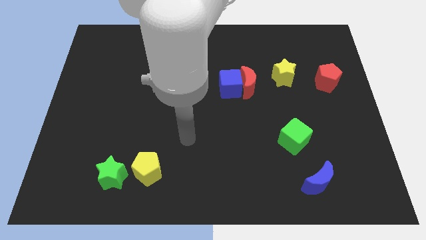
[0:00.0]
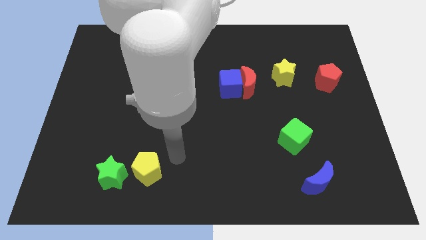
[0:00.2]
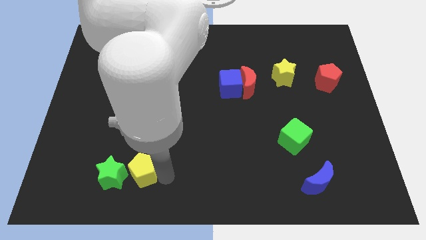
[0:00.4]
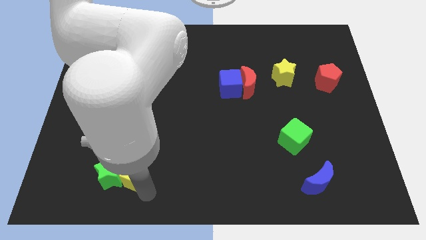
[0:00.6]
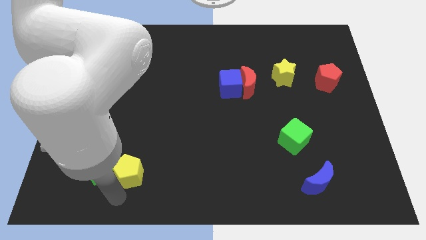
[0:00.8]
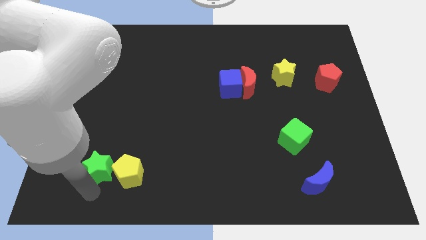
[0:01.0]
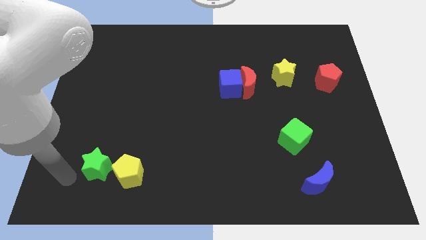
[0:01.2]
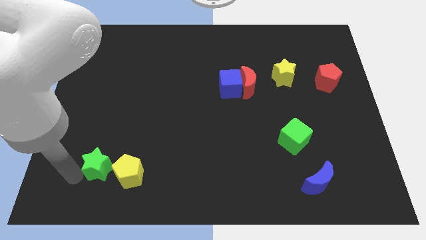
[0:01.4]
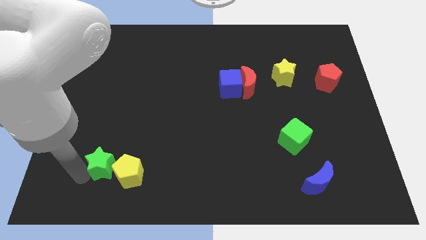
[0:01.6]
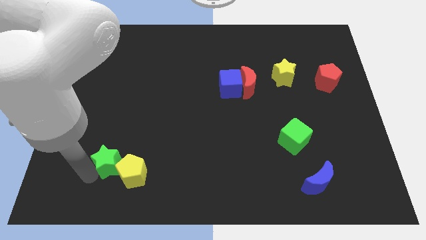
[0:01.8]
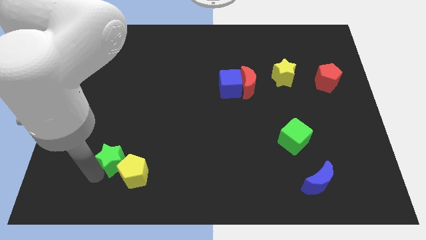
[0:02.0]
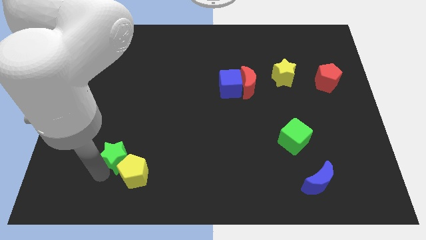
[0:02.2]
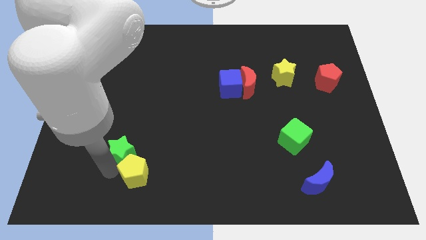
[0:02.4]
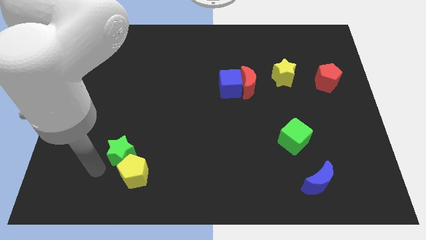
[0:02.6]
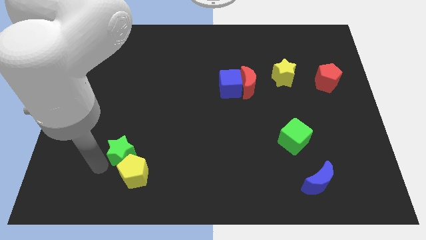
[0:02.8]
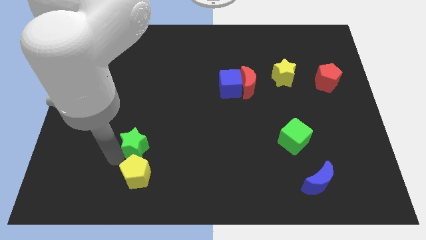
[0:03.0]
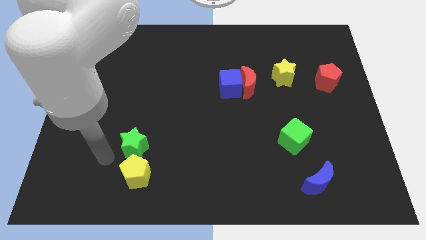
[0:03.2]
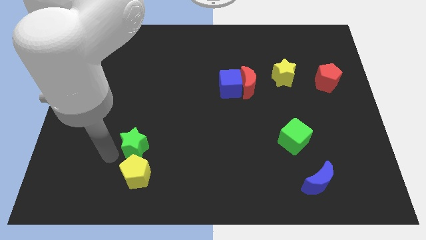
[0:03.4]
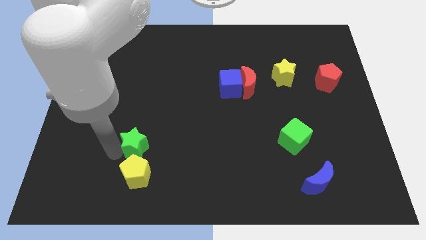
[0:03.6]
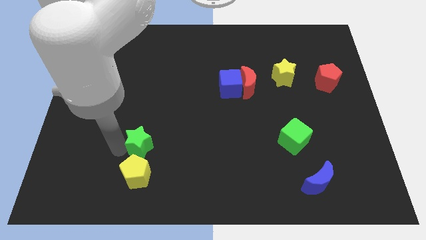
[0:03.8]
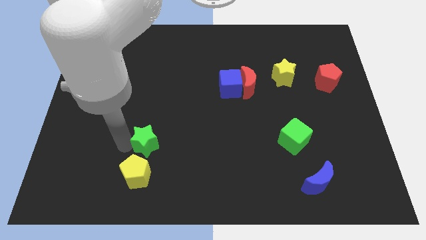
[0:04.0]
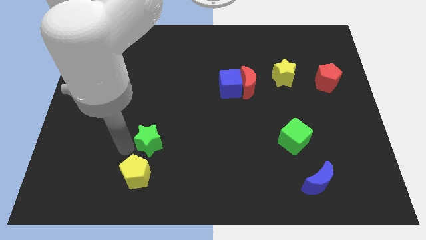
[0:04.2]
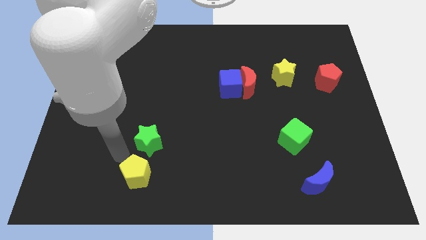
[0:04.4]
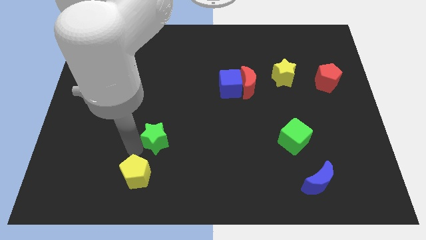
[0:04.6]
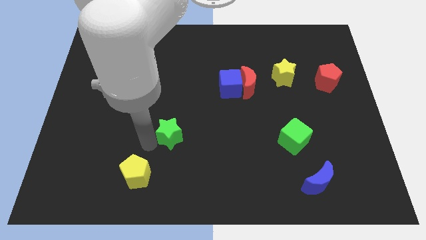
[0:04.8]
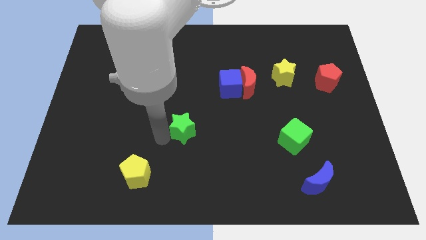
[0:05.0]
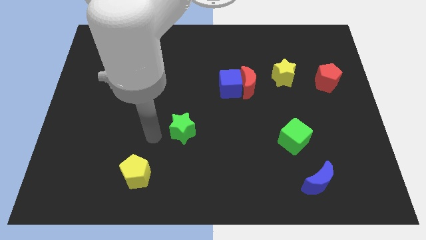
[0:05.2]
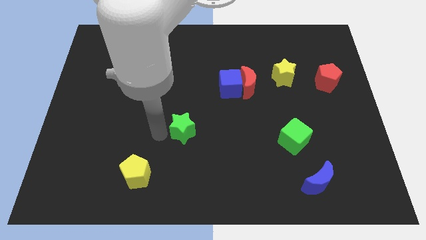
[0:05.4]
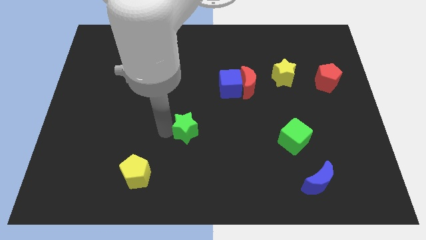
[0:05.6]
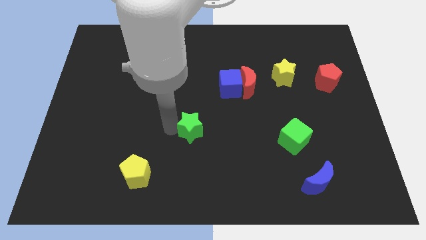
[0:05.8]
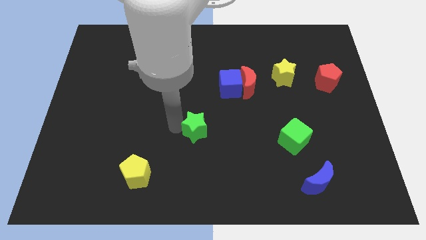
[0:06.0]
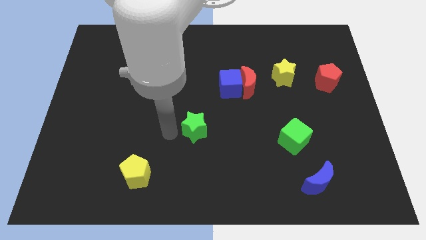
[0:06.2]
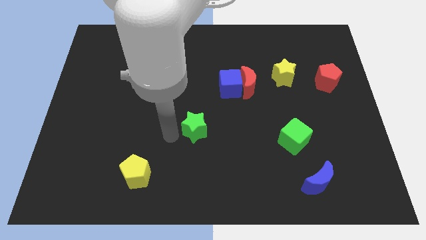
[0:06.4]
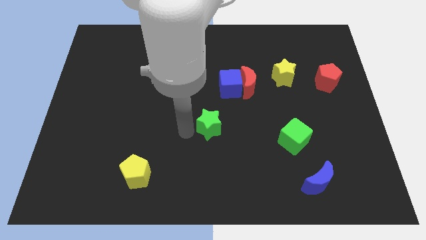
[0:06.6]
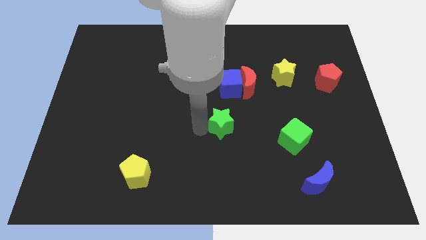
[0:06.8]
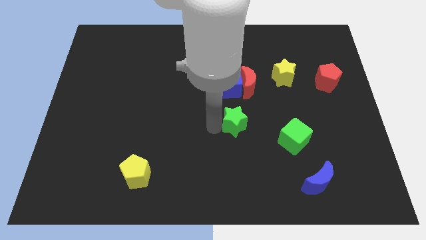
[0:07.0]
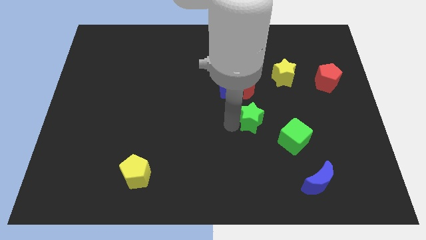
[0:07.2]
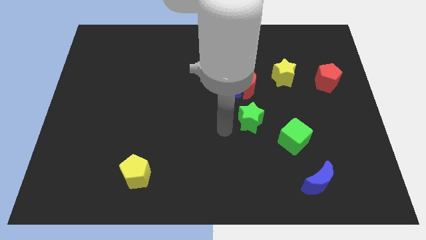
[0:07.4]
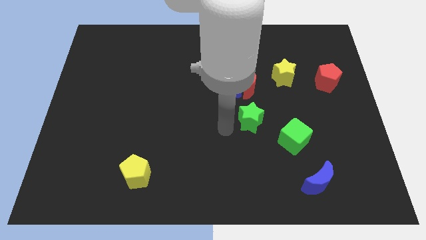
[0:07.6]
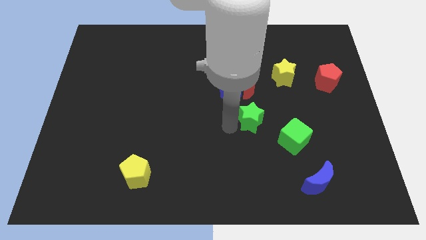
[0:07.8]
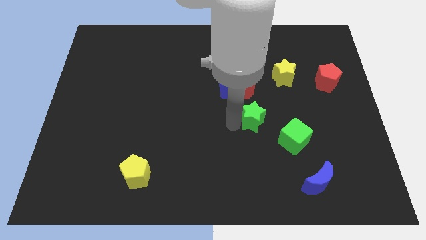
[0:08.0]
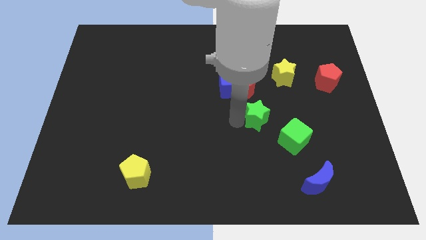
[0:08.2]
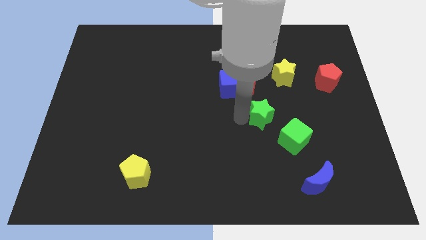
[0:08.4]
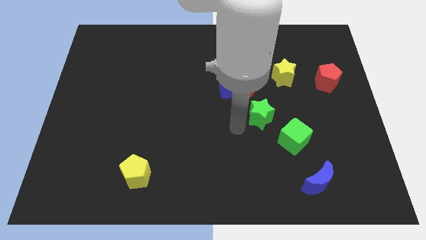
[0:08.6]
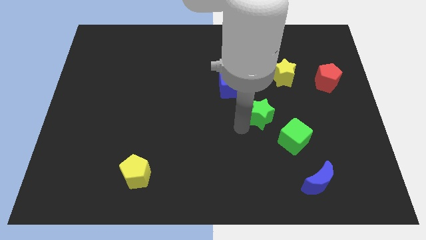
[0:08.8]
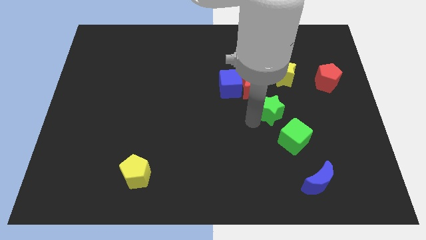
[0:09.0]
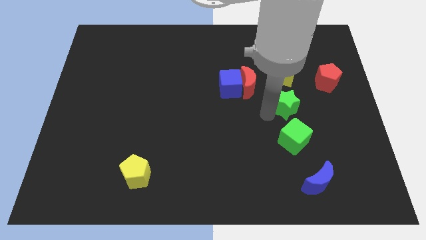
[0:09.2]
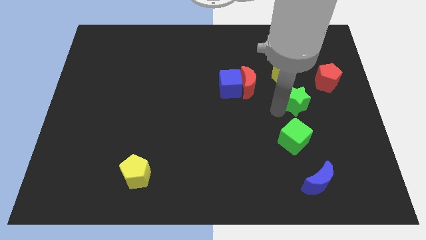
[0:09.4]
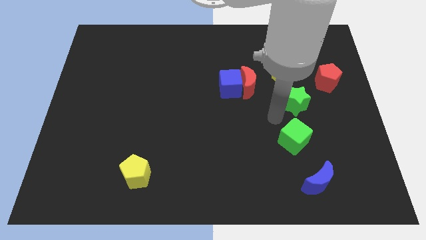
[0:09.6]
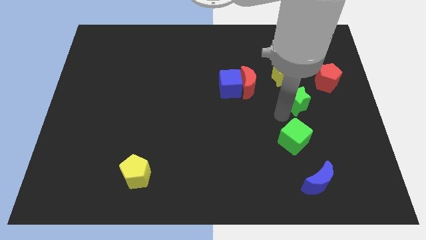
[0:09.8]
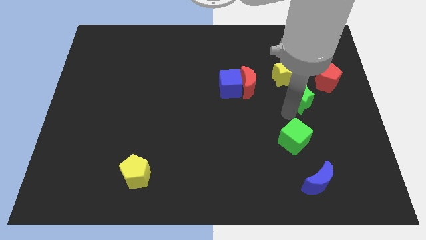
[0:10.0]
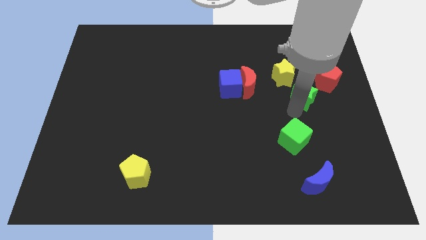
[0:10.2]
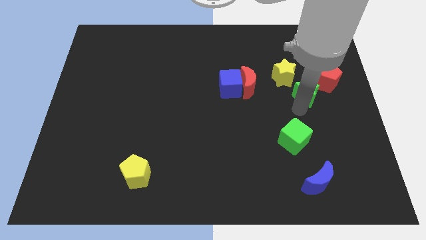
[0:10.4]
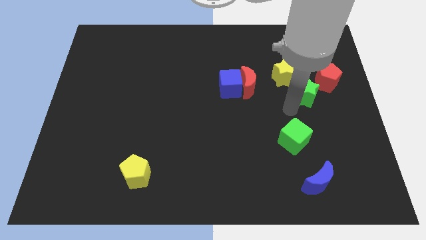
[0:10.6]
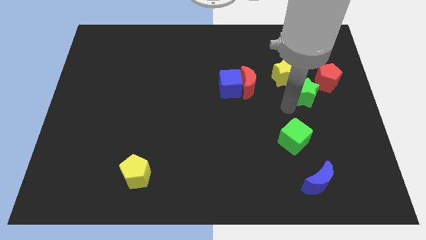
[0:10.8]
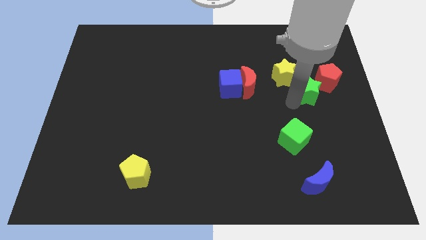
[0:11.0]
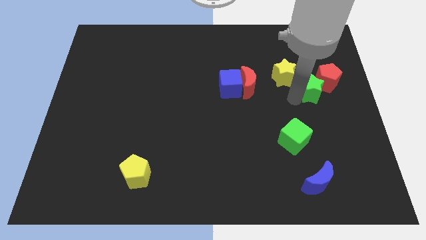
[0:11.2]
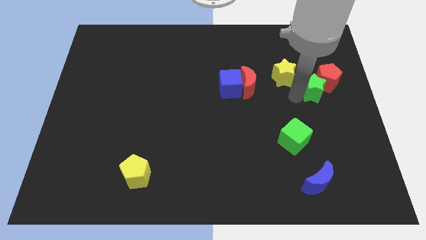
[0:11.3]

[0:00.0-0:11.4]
slide the green star to the red pentagon

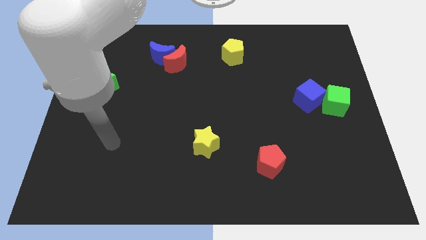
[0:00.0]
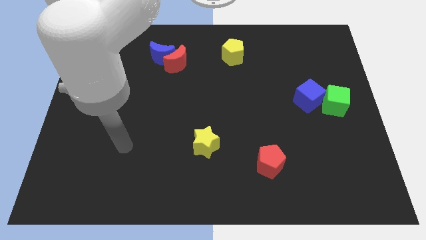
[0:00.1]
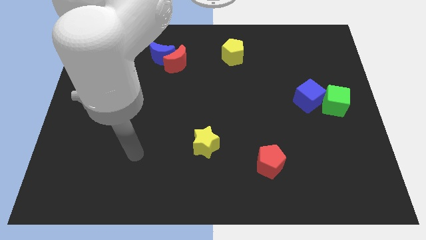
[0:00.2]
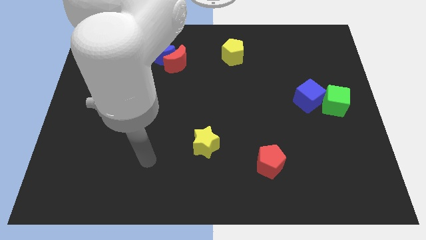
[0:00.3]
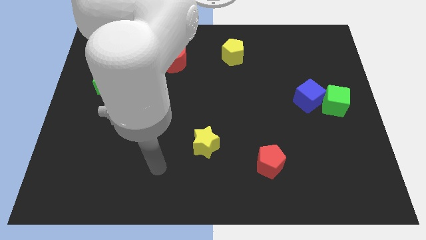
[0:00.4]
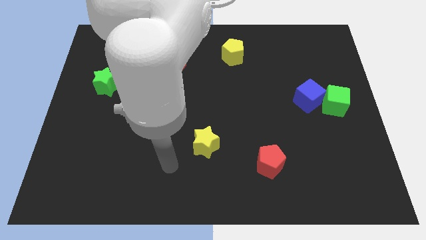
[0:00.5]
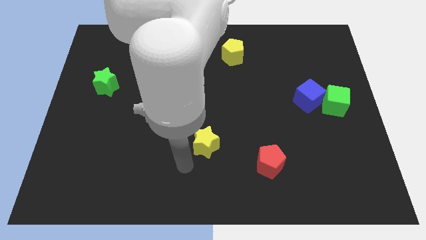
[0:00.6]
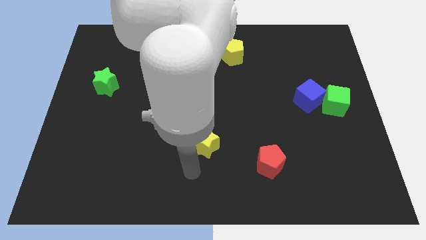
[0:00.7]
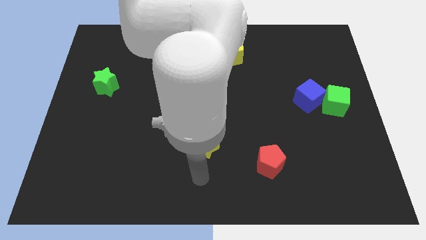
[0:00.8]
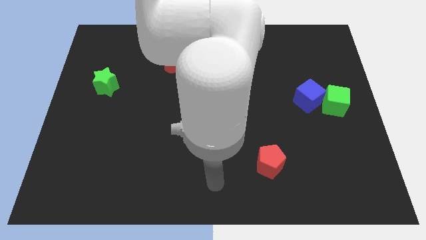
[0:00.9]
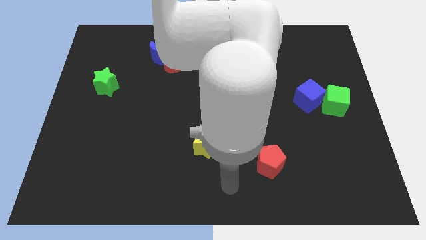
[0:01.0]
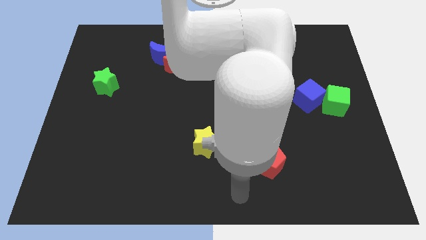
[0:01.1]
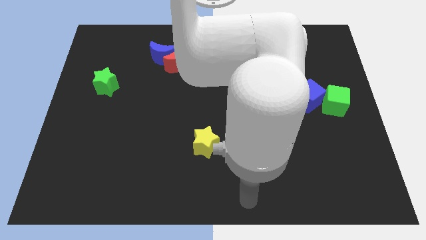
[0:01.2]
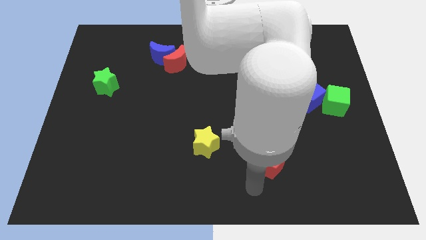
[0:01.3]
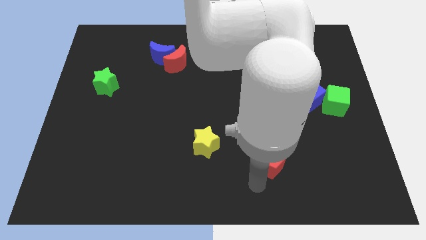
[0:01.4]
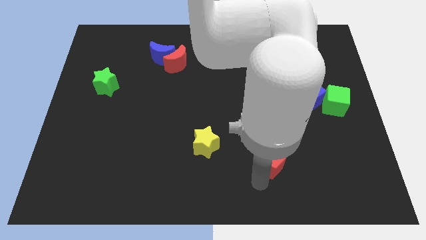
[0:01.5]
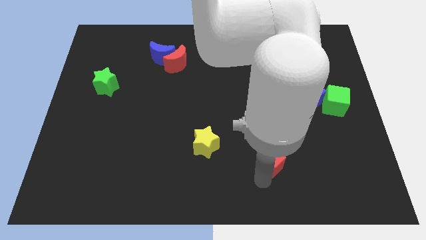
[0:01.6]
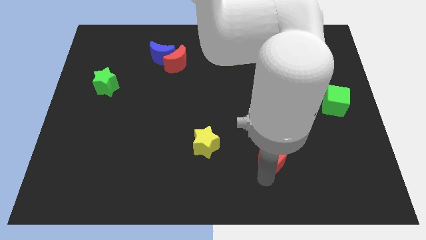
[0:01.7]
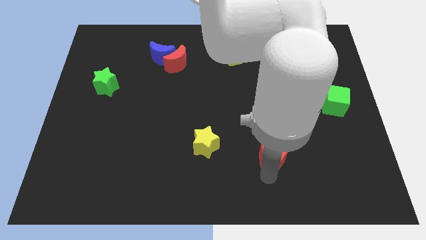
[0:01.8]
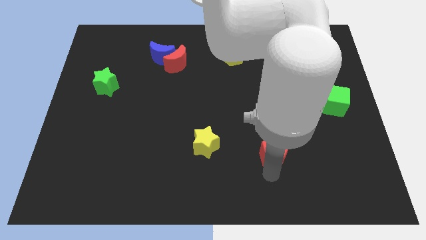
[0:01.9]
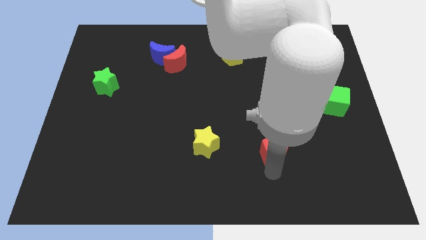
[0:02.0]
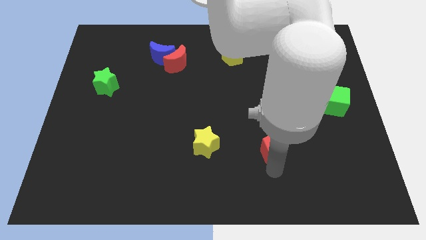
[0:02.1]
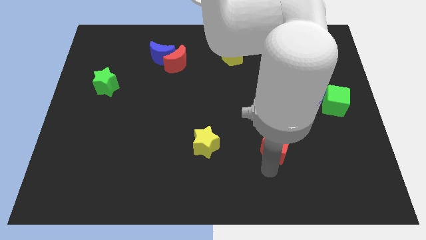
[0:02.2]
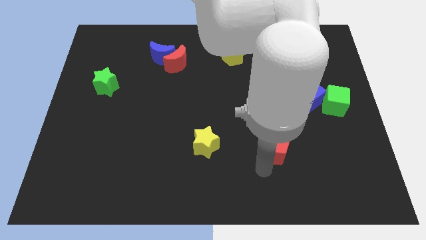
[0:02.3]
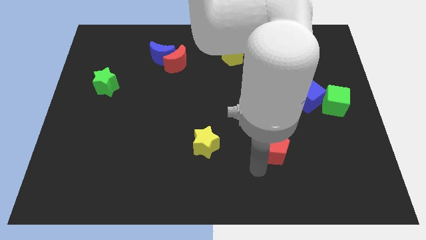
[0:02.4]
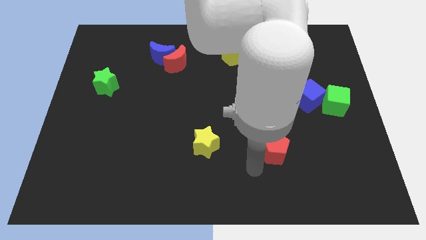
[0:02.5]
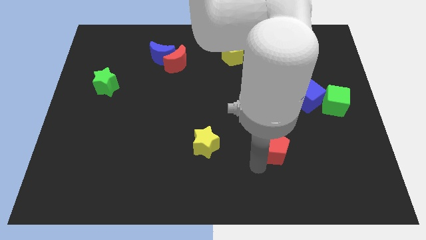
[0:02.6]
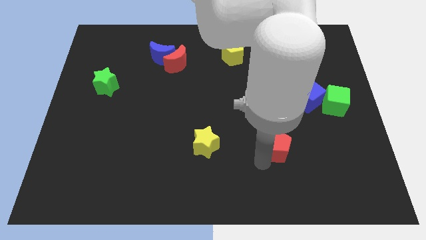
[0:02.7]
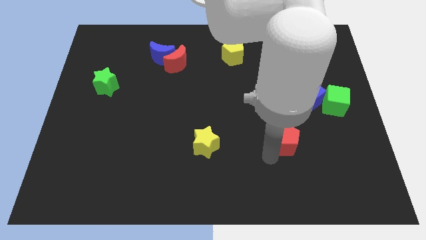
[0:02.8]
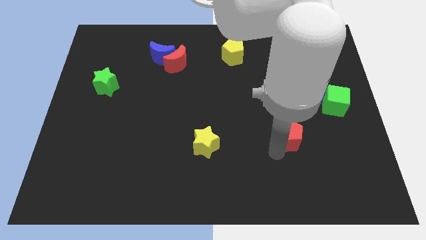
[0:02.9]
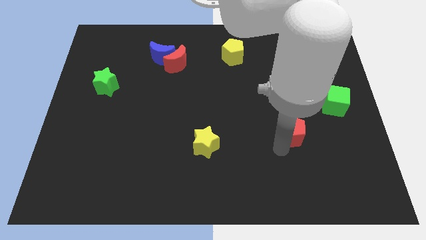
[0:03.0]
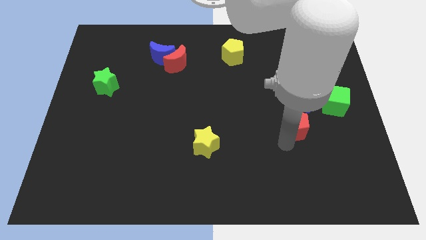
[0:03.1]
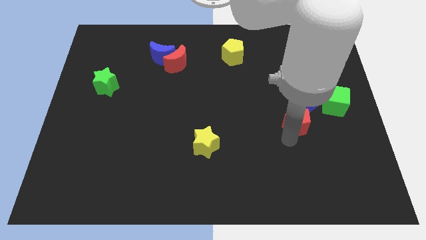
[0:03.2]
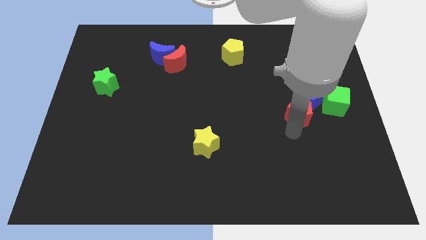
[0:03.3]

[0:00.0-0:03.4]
slide the red pentagon next to the blue cube
